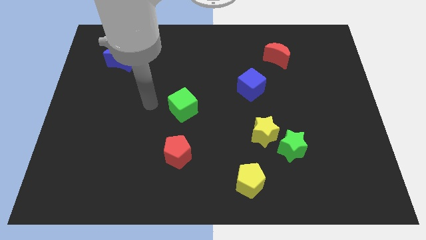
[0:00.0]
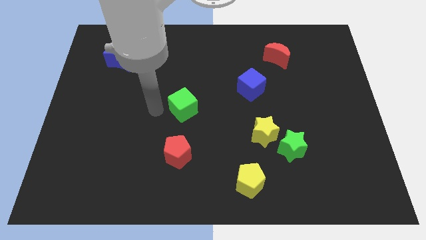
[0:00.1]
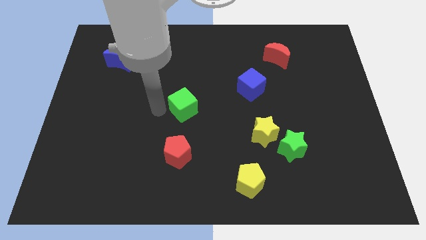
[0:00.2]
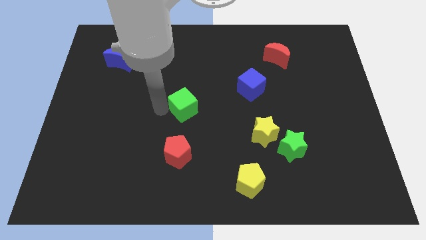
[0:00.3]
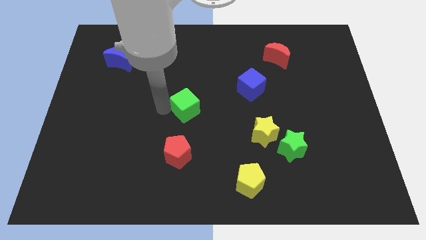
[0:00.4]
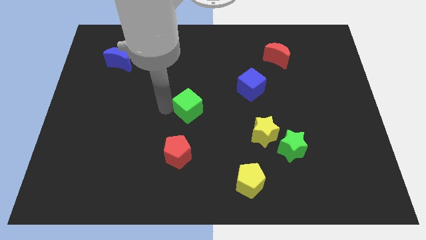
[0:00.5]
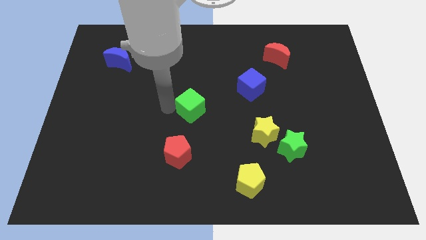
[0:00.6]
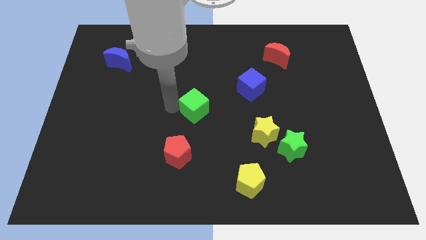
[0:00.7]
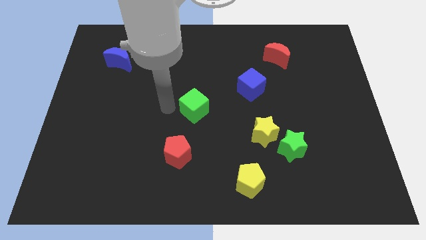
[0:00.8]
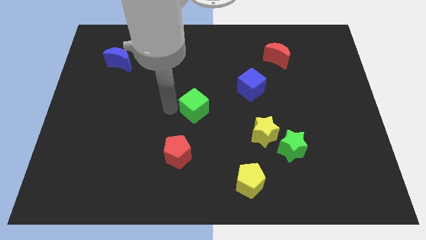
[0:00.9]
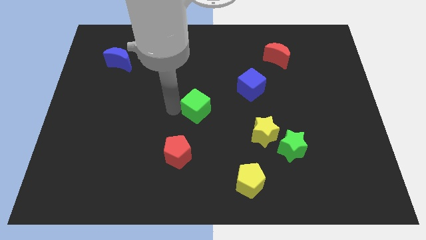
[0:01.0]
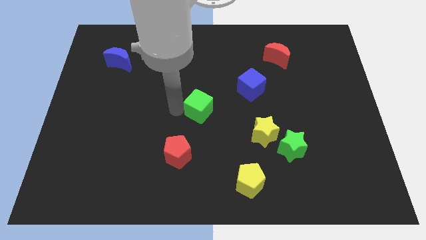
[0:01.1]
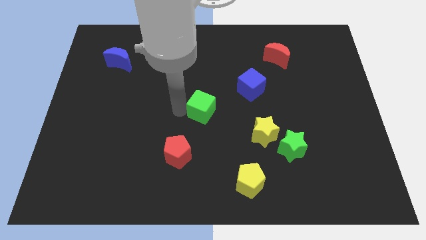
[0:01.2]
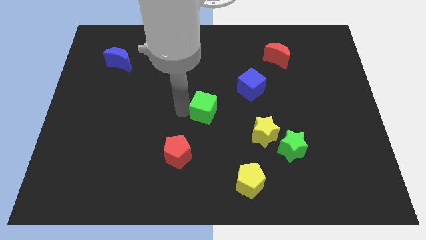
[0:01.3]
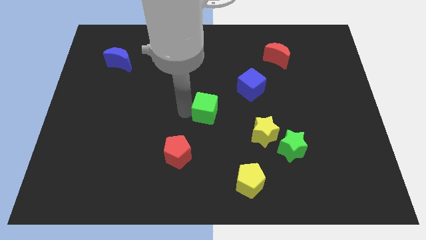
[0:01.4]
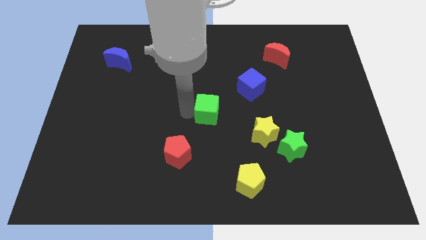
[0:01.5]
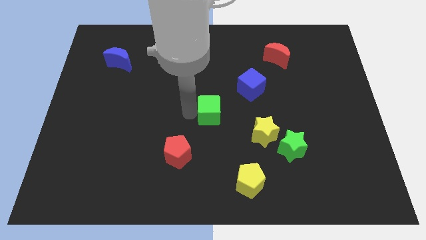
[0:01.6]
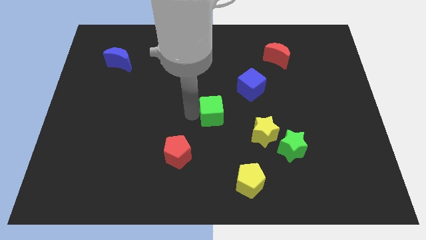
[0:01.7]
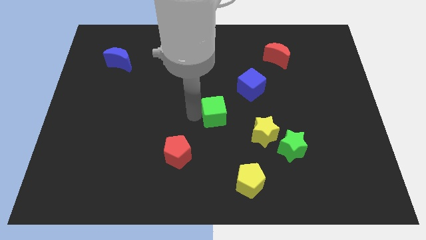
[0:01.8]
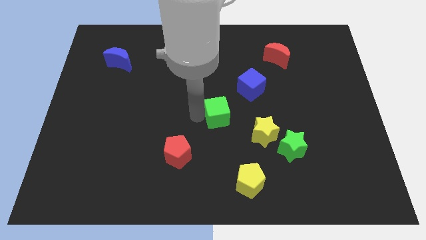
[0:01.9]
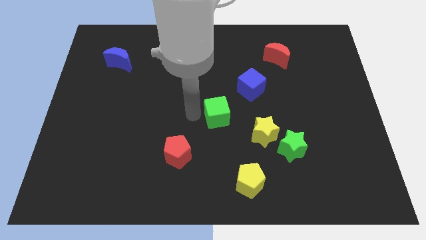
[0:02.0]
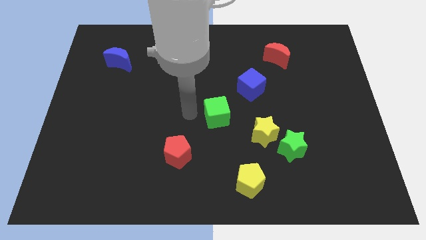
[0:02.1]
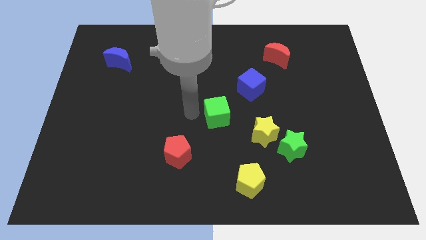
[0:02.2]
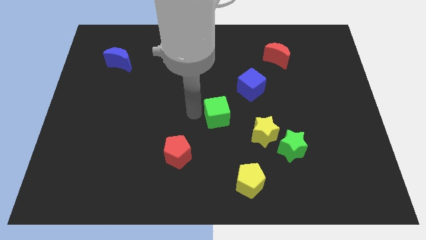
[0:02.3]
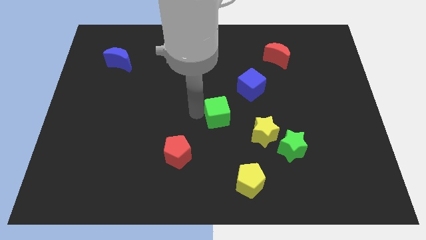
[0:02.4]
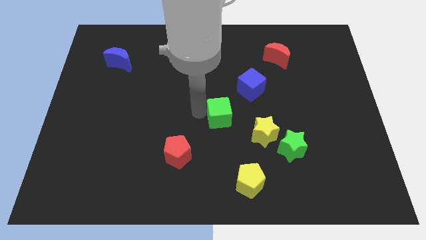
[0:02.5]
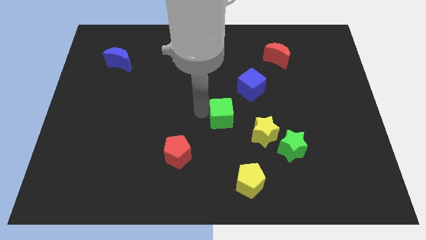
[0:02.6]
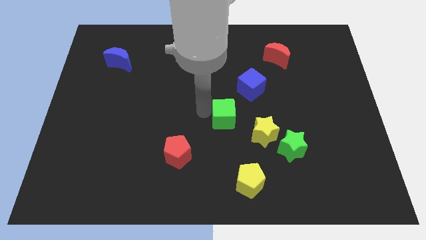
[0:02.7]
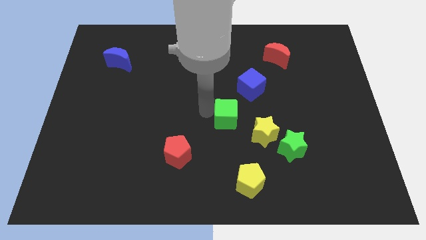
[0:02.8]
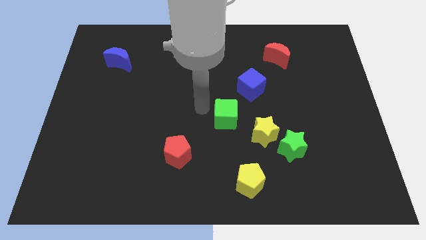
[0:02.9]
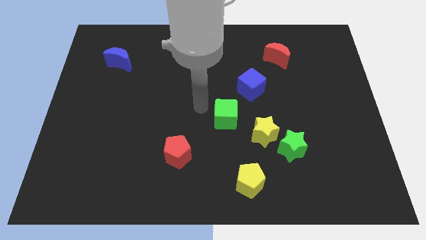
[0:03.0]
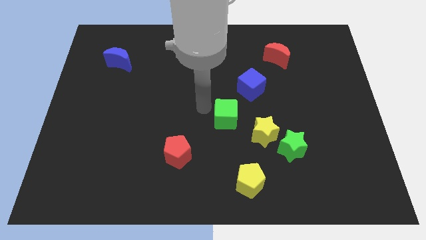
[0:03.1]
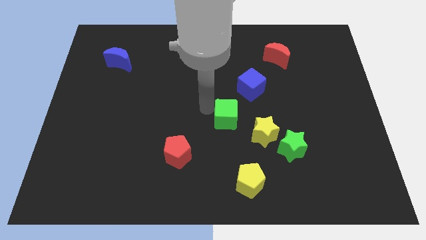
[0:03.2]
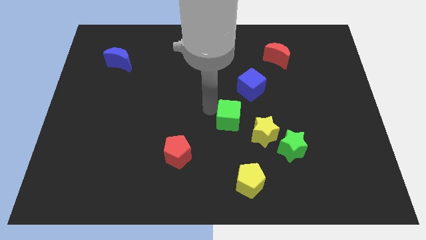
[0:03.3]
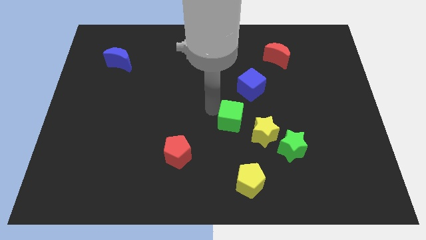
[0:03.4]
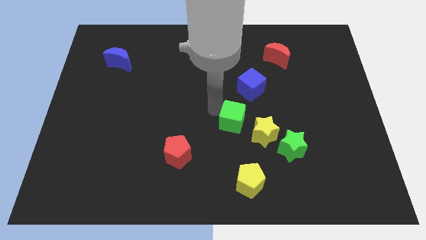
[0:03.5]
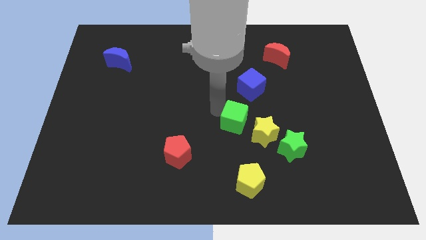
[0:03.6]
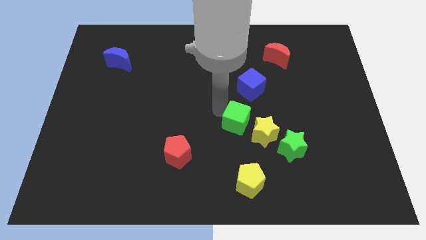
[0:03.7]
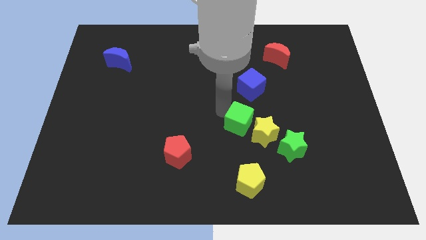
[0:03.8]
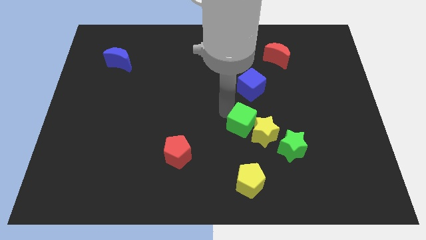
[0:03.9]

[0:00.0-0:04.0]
push the green cube to the yellow star

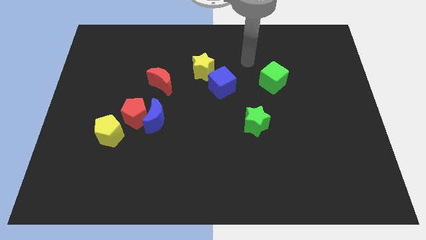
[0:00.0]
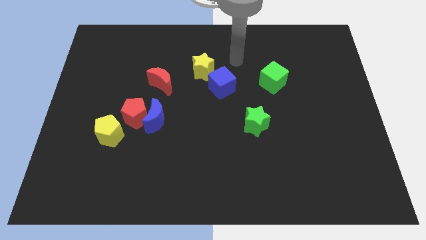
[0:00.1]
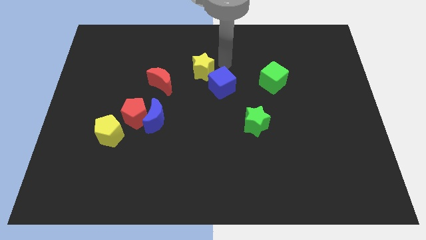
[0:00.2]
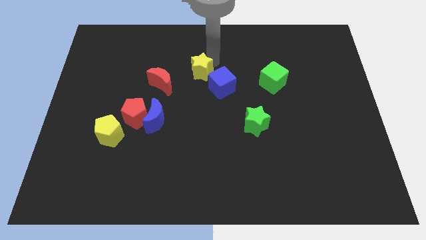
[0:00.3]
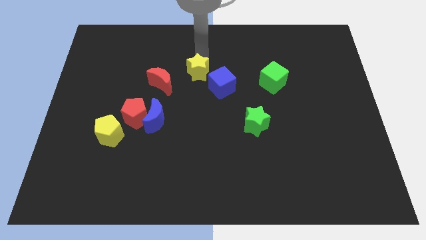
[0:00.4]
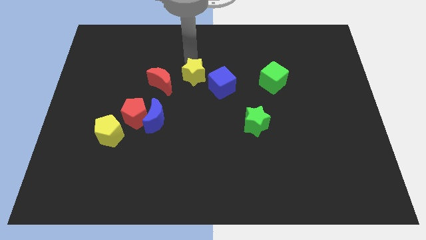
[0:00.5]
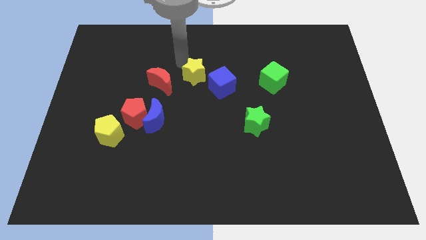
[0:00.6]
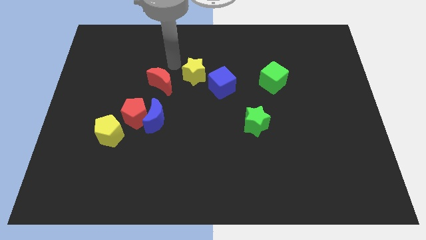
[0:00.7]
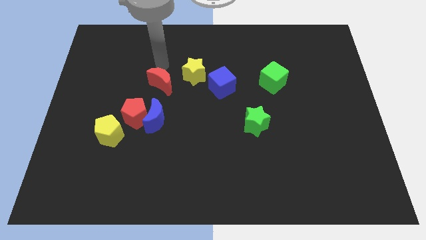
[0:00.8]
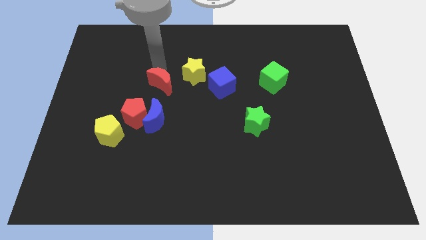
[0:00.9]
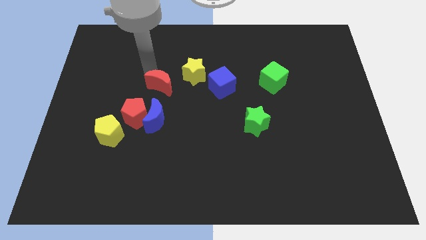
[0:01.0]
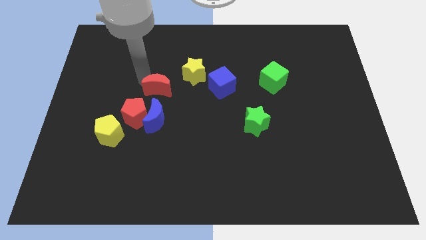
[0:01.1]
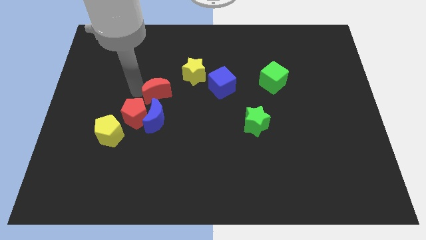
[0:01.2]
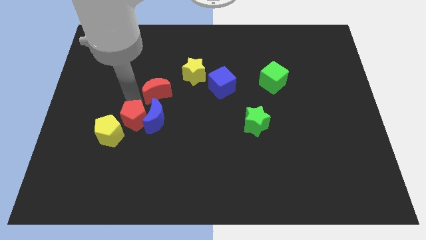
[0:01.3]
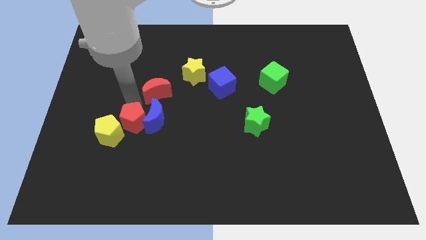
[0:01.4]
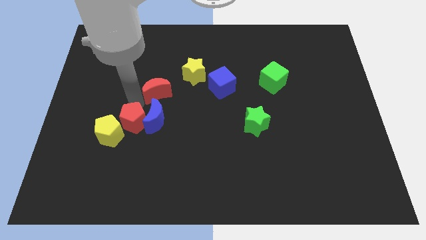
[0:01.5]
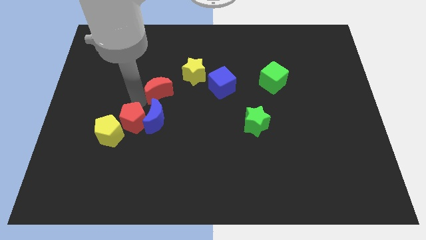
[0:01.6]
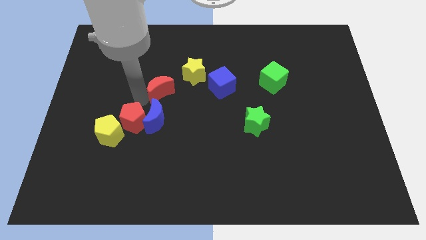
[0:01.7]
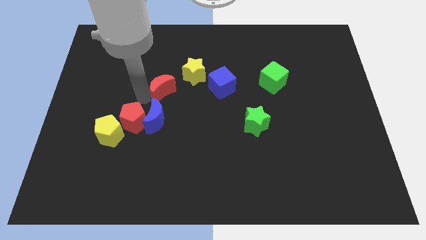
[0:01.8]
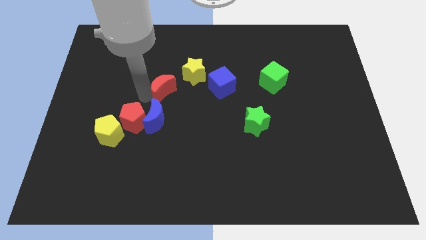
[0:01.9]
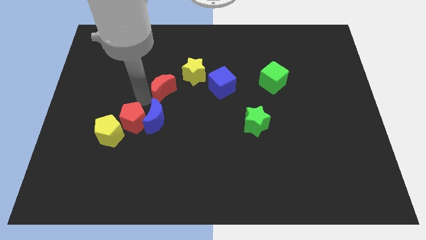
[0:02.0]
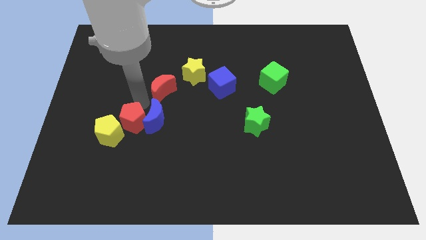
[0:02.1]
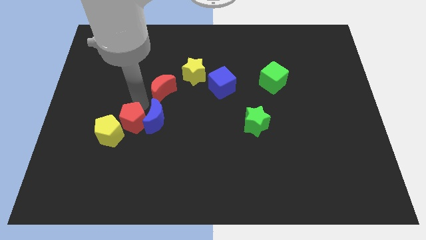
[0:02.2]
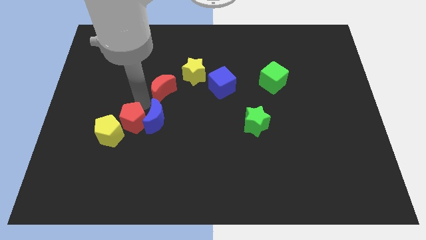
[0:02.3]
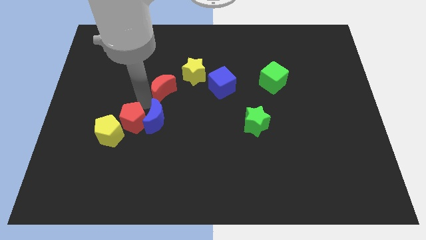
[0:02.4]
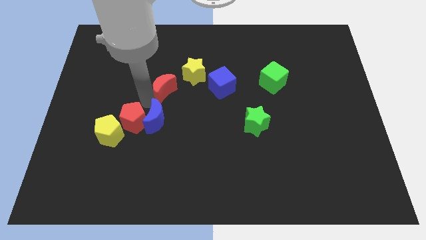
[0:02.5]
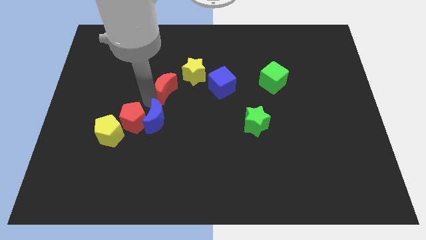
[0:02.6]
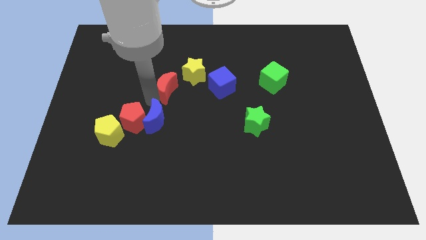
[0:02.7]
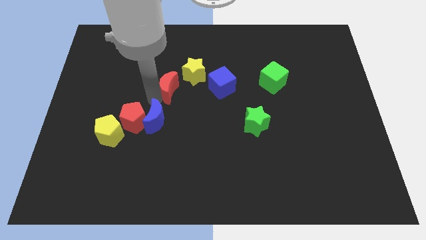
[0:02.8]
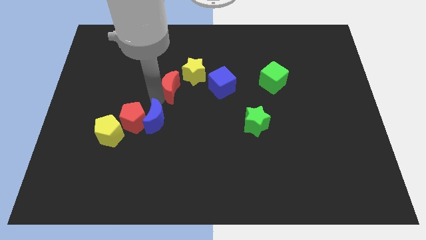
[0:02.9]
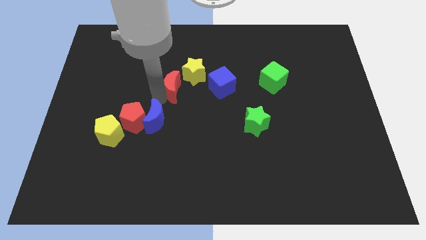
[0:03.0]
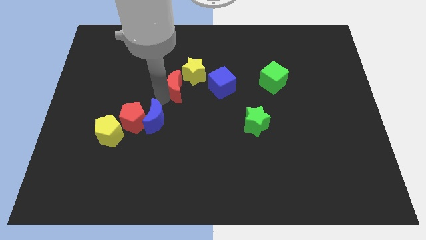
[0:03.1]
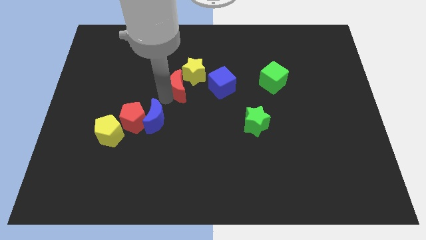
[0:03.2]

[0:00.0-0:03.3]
move the red moon towards the yellow star

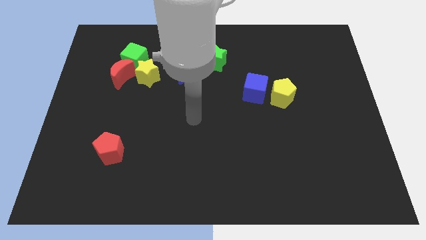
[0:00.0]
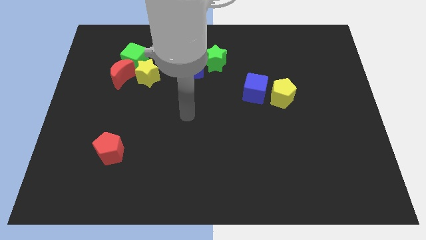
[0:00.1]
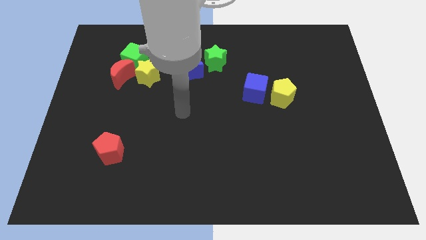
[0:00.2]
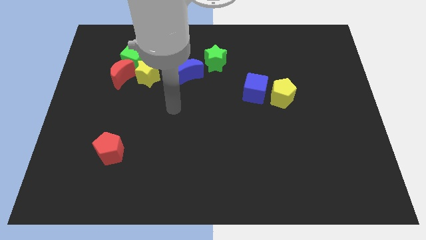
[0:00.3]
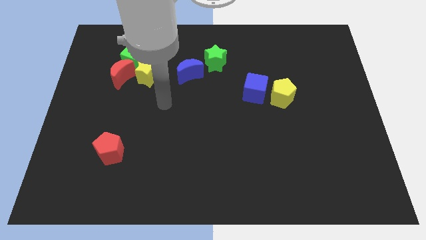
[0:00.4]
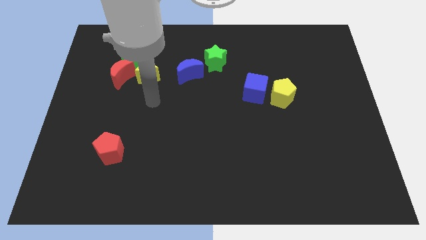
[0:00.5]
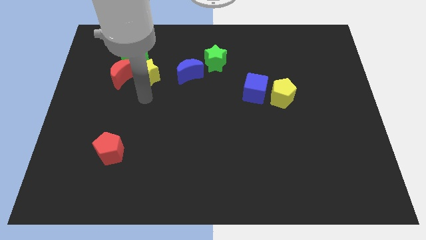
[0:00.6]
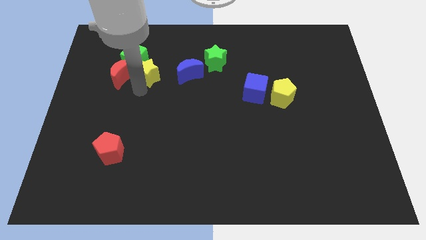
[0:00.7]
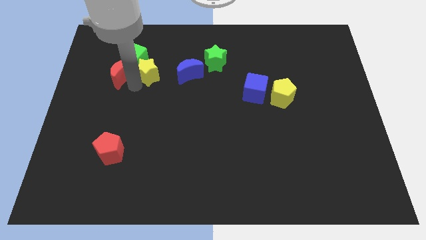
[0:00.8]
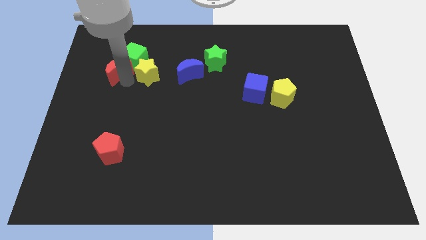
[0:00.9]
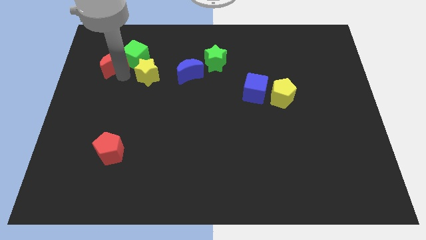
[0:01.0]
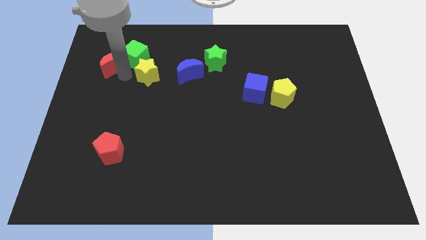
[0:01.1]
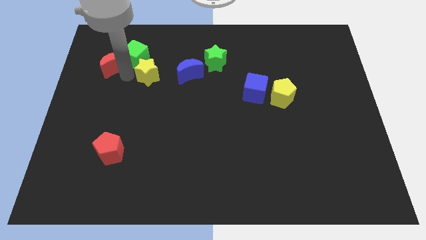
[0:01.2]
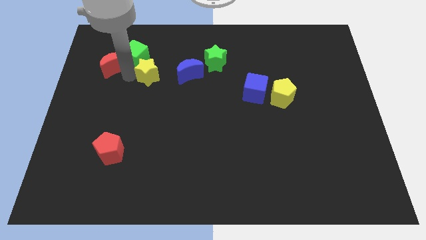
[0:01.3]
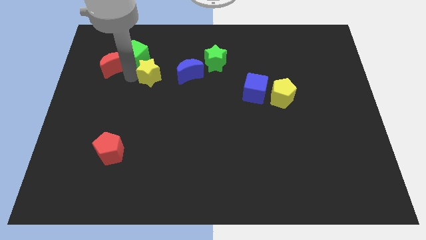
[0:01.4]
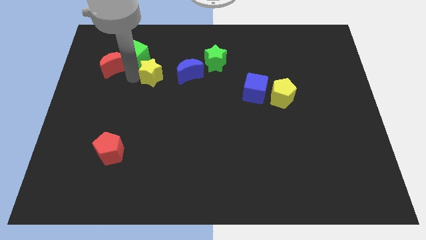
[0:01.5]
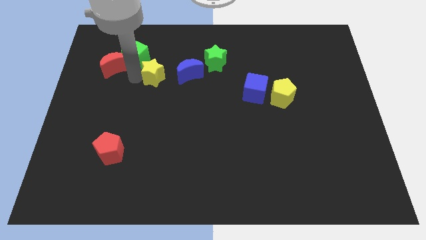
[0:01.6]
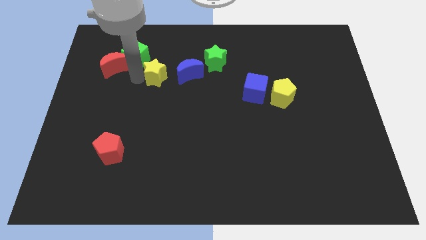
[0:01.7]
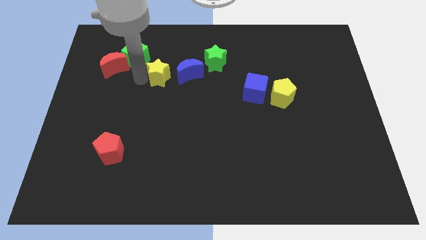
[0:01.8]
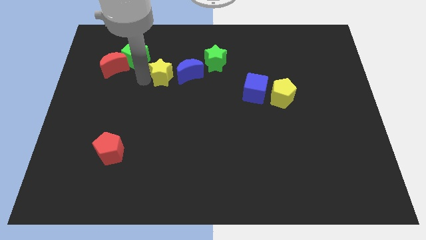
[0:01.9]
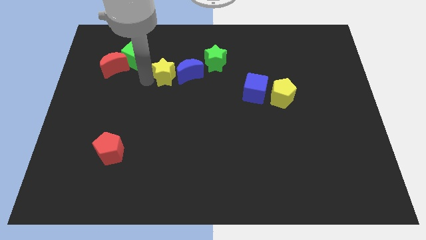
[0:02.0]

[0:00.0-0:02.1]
put the yellow star to the blue moon
